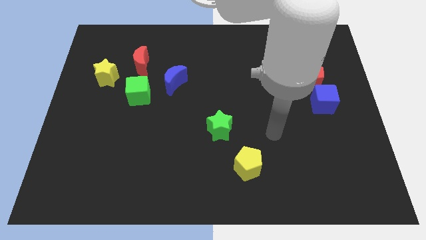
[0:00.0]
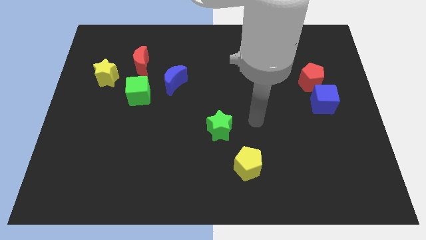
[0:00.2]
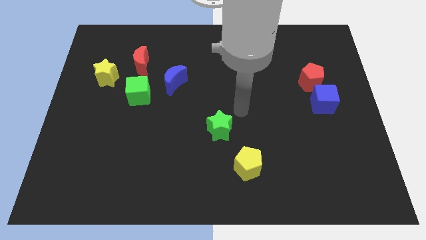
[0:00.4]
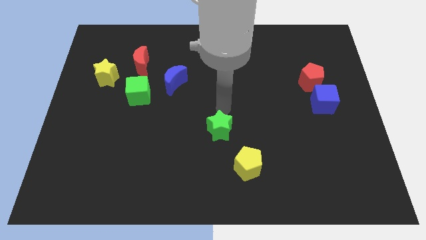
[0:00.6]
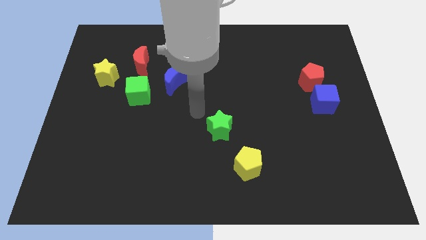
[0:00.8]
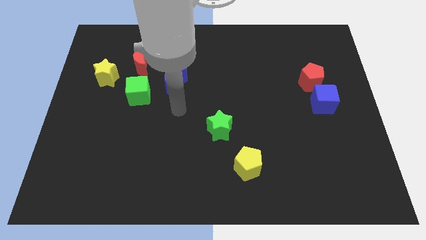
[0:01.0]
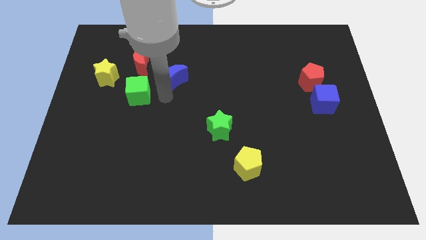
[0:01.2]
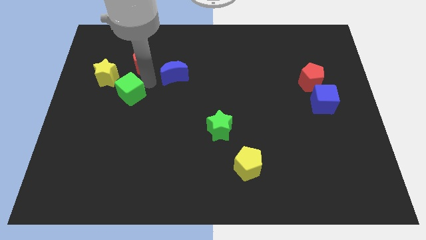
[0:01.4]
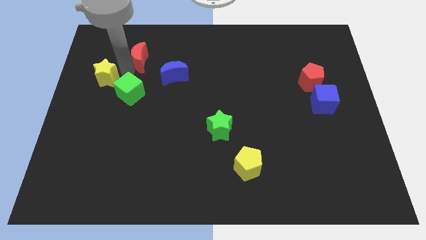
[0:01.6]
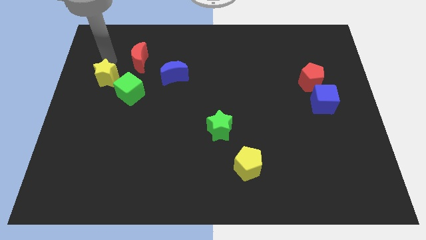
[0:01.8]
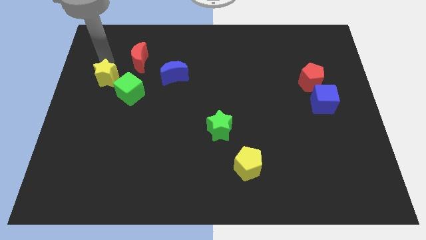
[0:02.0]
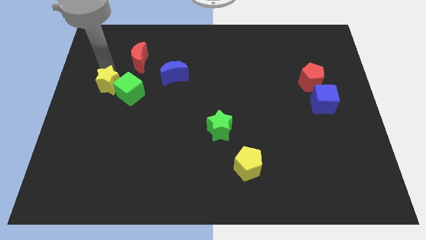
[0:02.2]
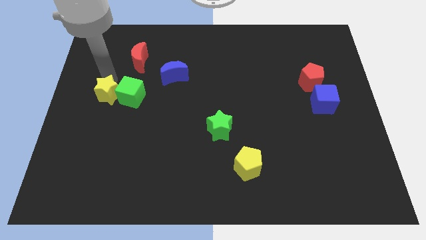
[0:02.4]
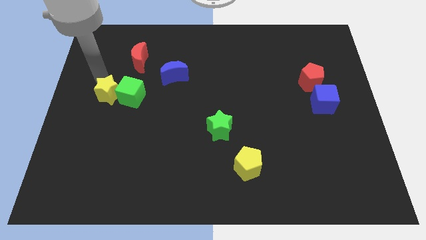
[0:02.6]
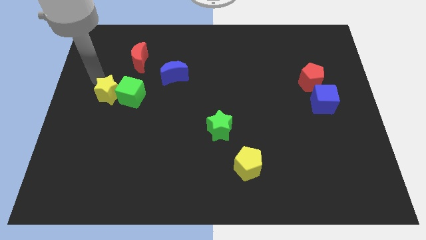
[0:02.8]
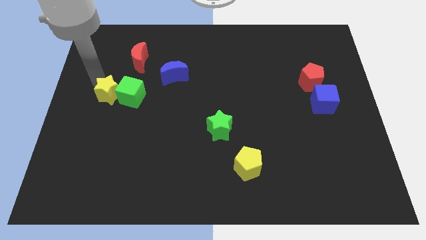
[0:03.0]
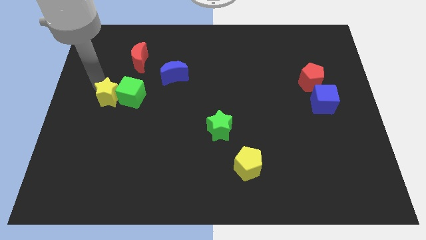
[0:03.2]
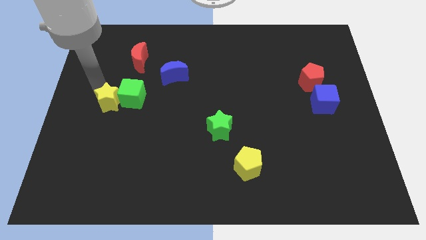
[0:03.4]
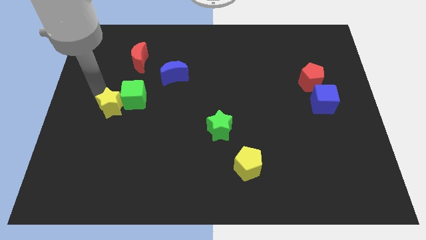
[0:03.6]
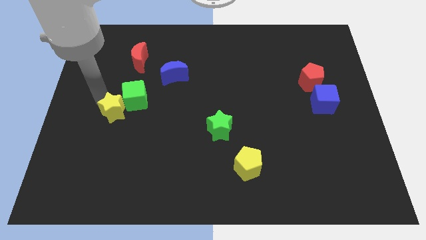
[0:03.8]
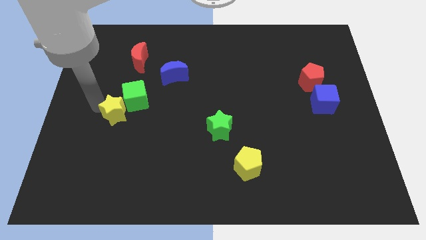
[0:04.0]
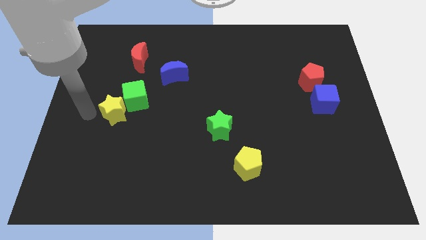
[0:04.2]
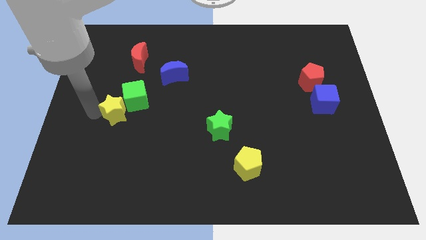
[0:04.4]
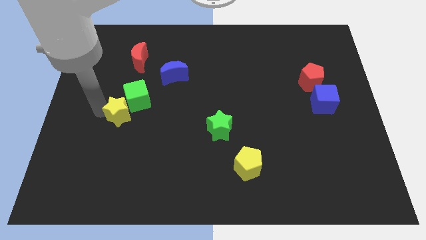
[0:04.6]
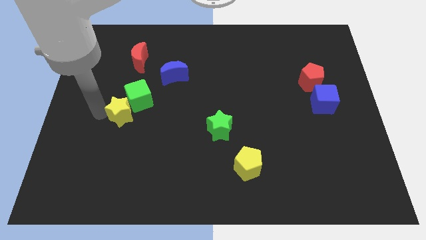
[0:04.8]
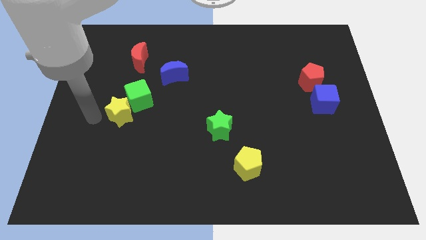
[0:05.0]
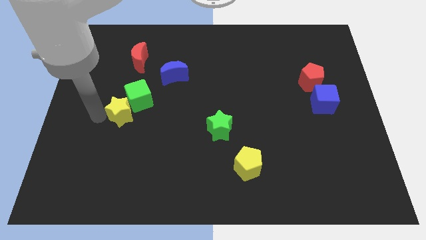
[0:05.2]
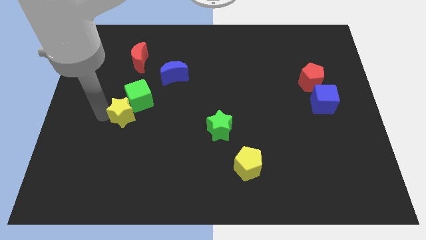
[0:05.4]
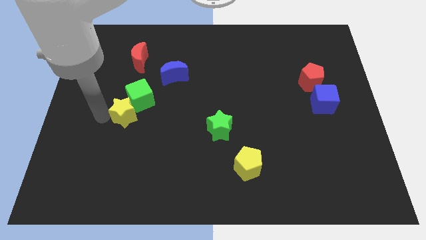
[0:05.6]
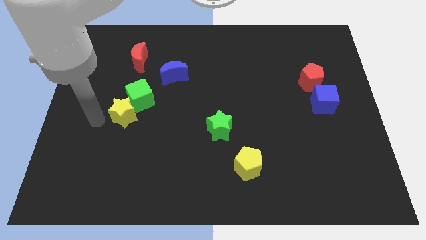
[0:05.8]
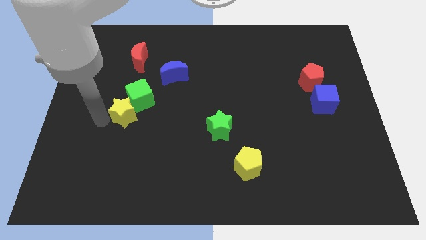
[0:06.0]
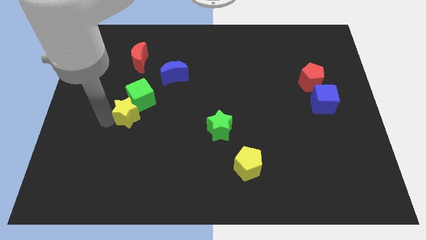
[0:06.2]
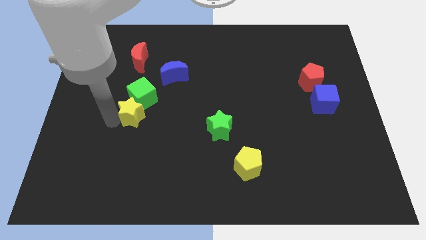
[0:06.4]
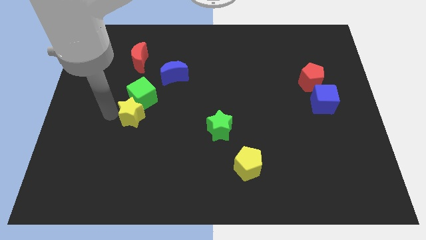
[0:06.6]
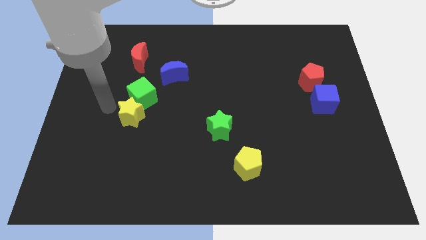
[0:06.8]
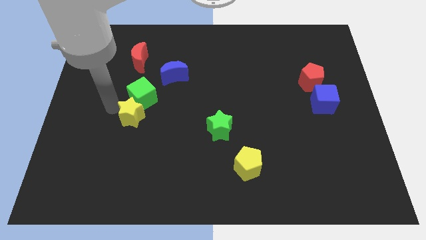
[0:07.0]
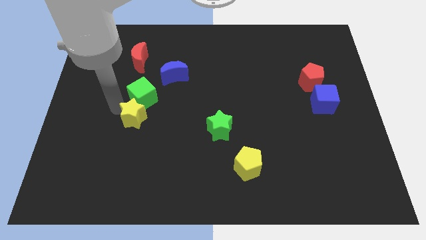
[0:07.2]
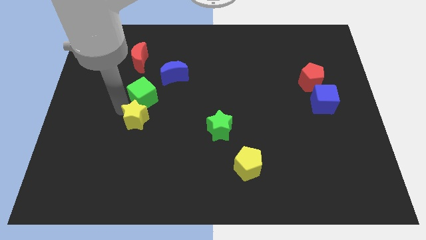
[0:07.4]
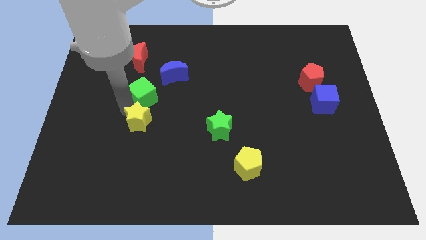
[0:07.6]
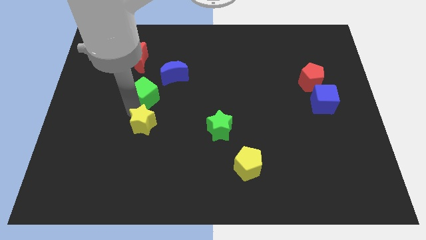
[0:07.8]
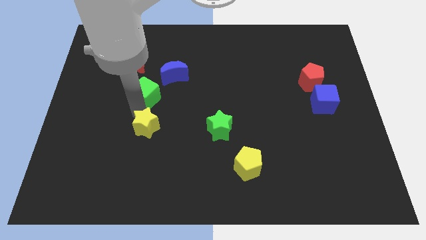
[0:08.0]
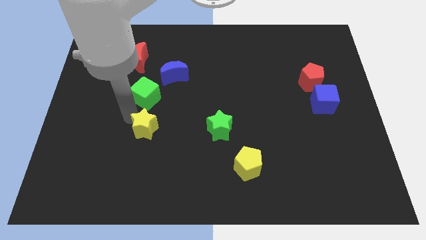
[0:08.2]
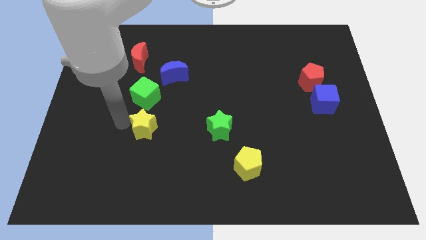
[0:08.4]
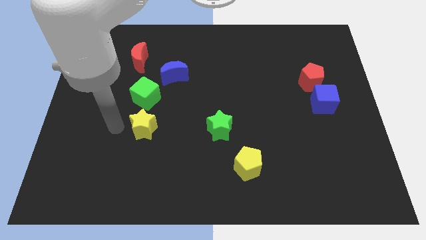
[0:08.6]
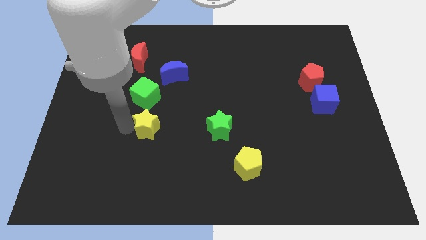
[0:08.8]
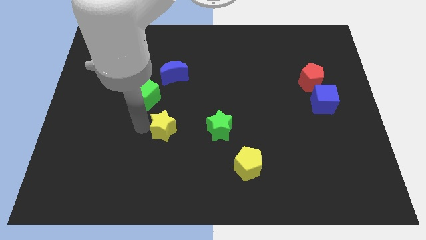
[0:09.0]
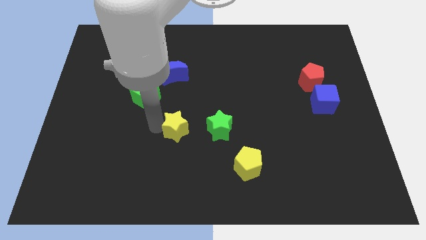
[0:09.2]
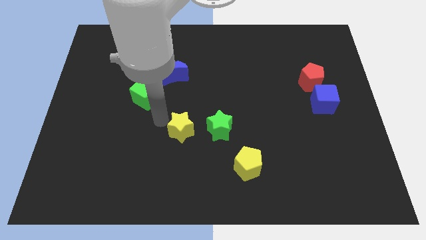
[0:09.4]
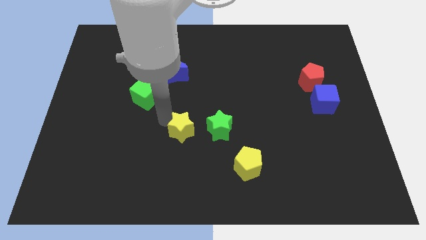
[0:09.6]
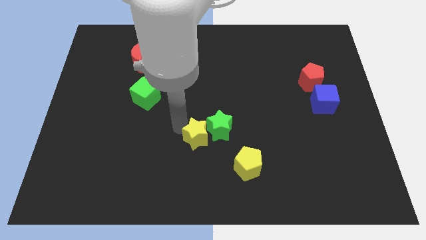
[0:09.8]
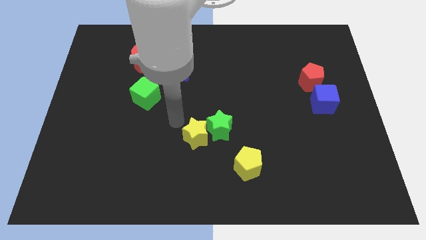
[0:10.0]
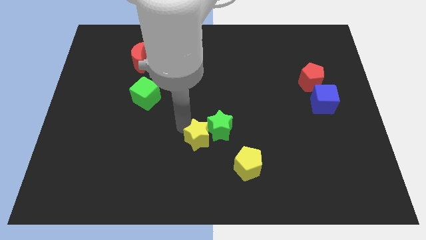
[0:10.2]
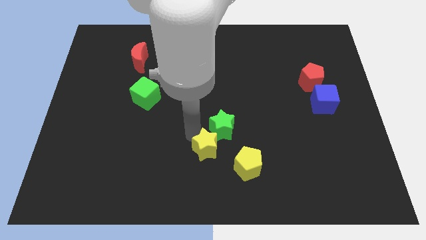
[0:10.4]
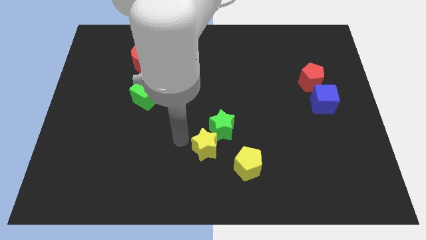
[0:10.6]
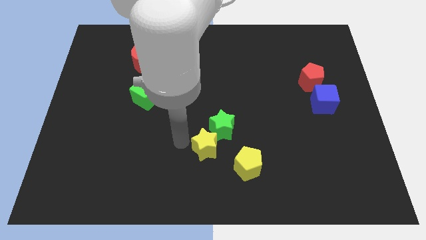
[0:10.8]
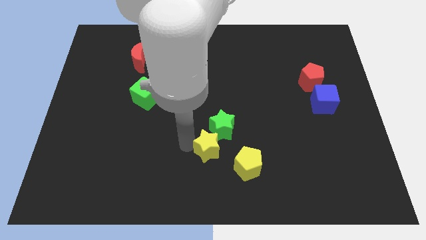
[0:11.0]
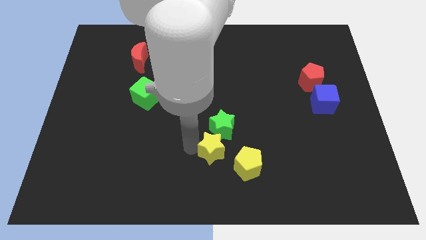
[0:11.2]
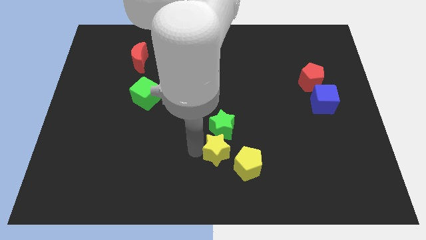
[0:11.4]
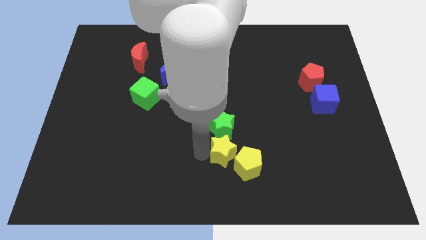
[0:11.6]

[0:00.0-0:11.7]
move the yellow star next to the yellow pentagon

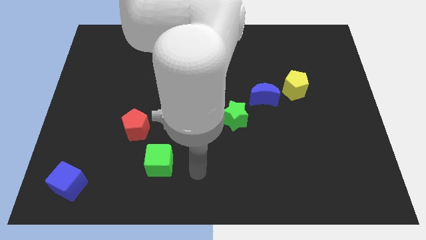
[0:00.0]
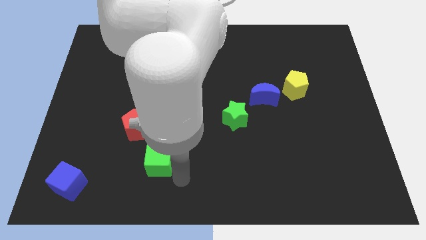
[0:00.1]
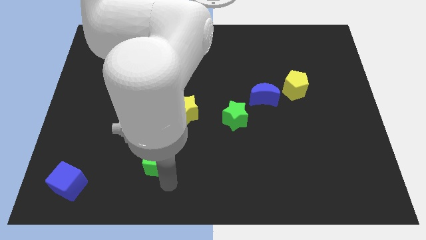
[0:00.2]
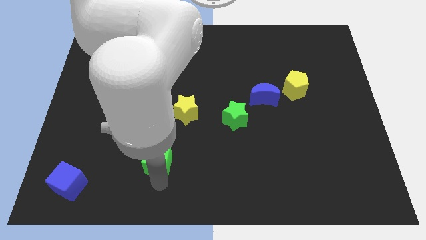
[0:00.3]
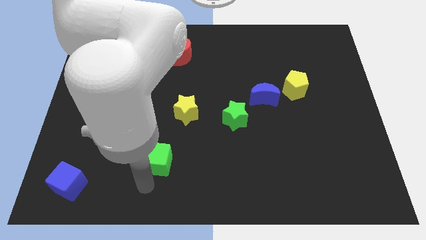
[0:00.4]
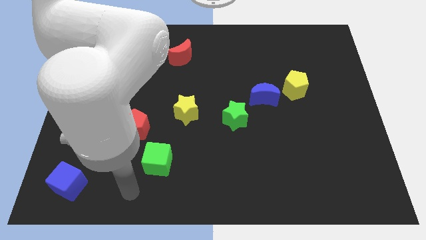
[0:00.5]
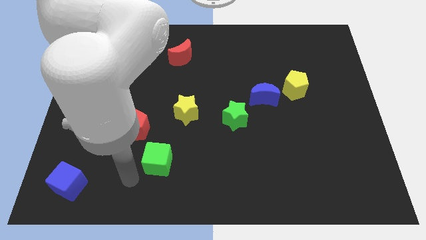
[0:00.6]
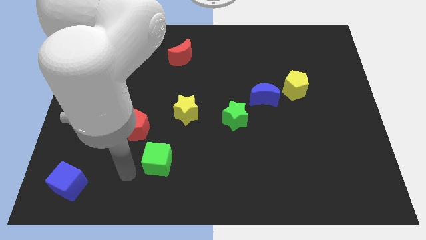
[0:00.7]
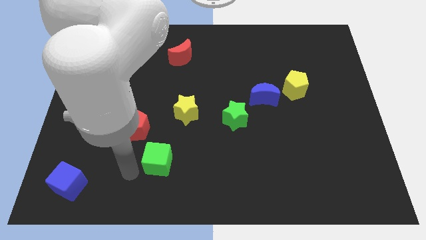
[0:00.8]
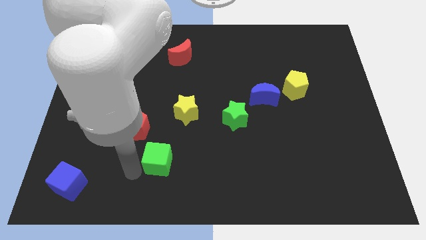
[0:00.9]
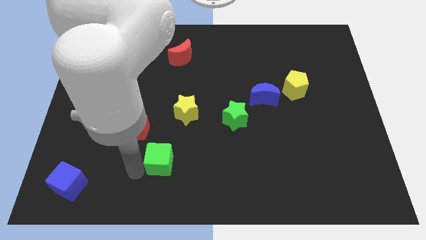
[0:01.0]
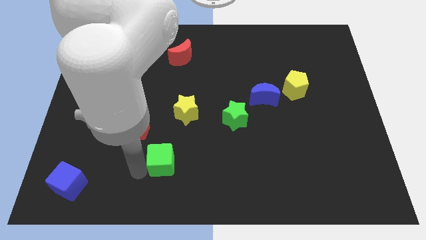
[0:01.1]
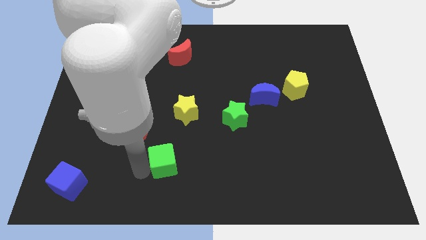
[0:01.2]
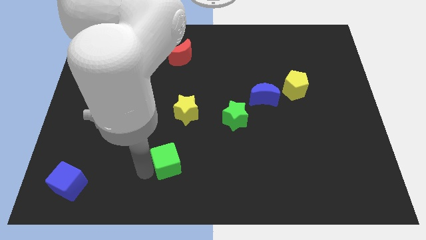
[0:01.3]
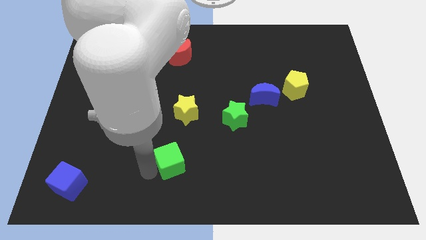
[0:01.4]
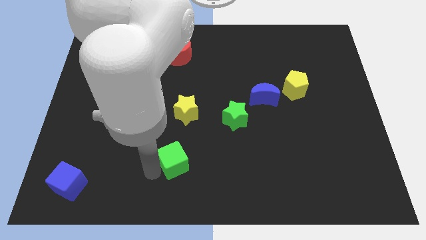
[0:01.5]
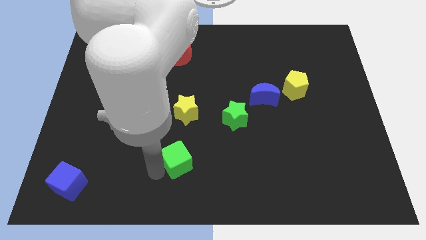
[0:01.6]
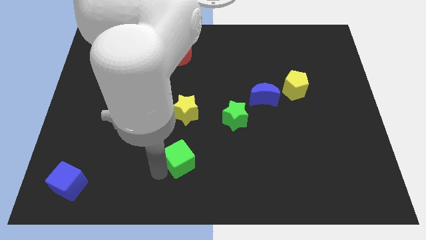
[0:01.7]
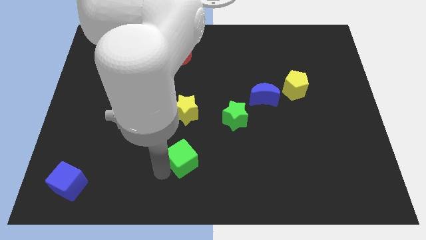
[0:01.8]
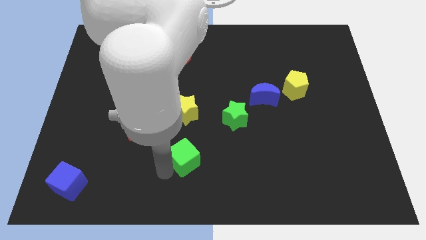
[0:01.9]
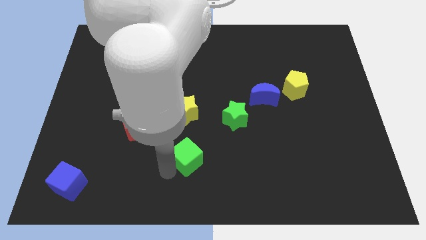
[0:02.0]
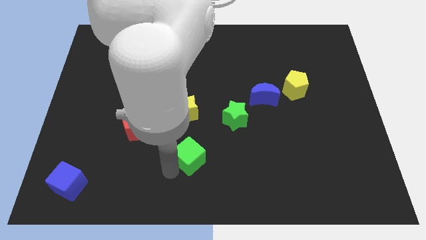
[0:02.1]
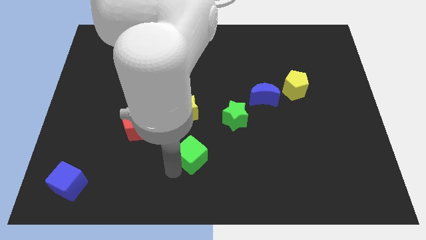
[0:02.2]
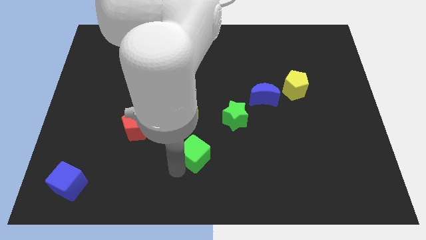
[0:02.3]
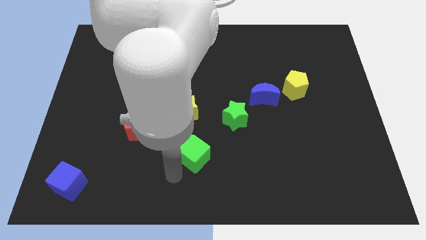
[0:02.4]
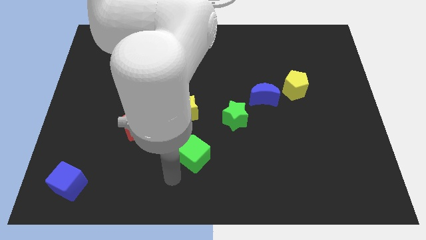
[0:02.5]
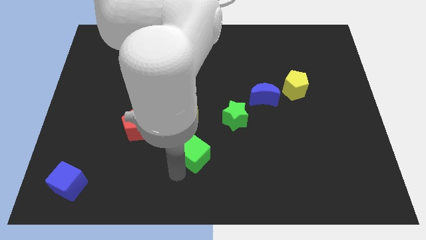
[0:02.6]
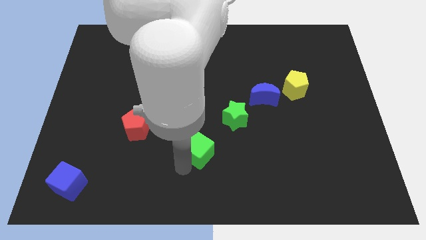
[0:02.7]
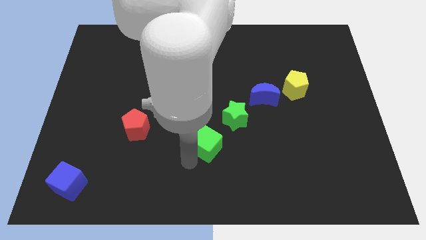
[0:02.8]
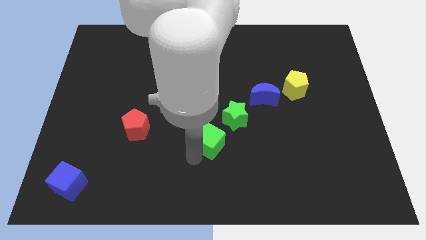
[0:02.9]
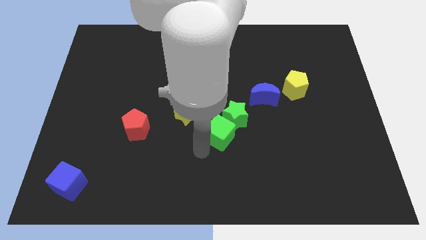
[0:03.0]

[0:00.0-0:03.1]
put the green cube towards the green star
